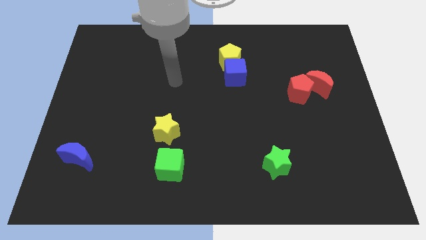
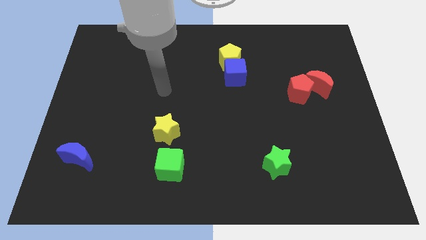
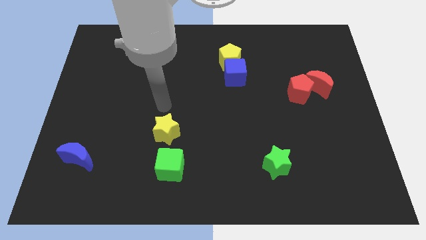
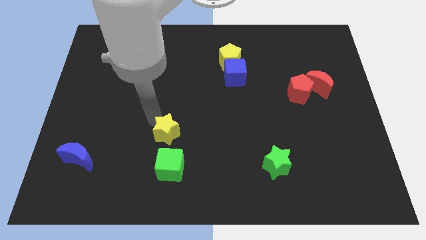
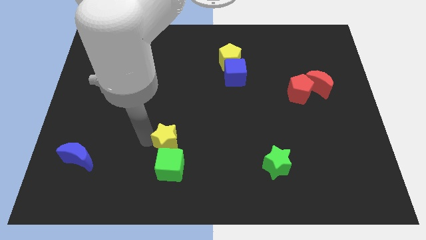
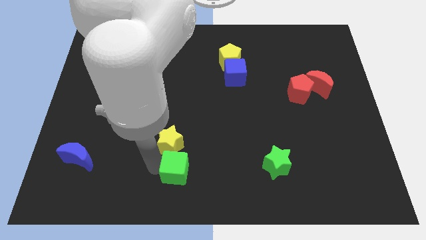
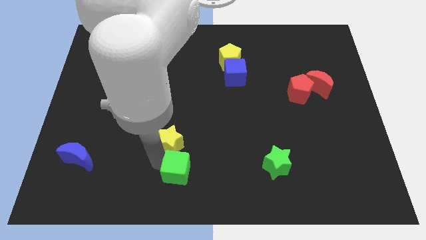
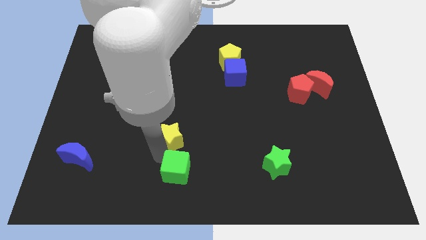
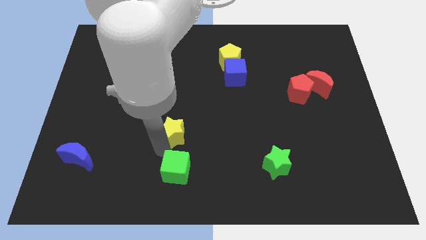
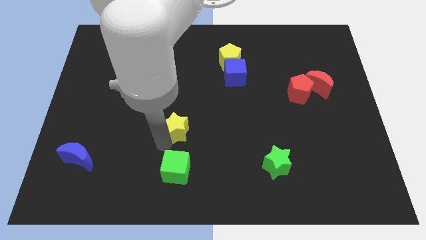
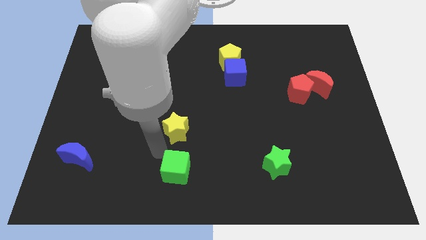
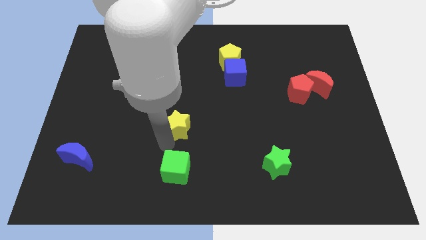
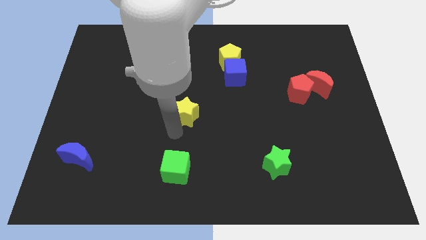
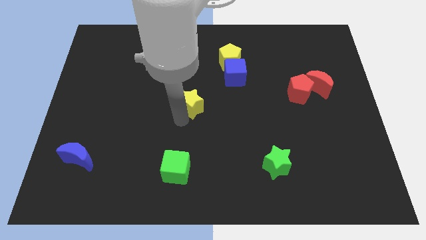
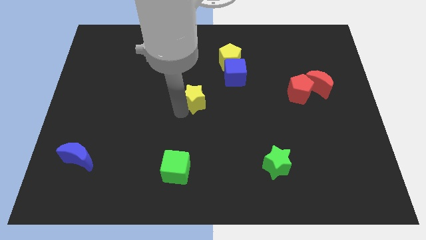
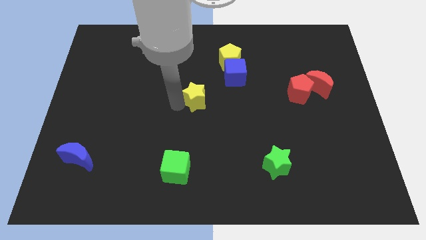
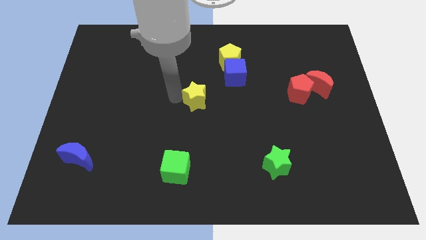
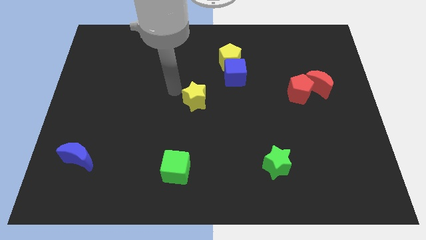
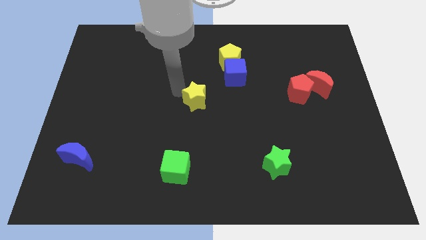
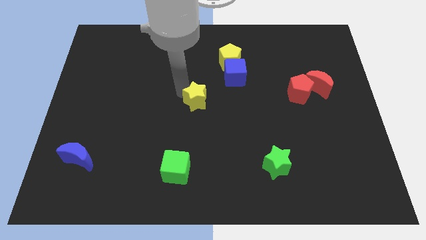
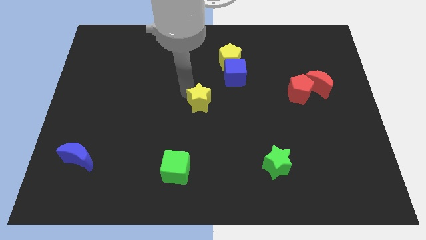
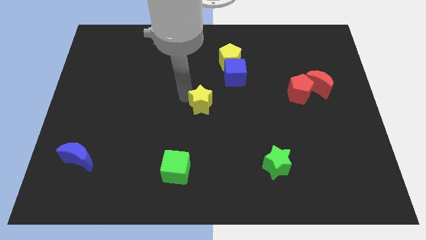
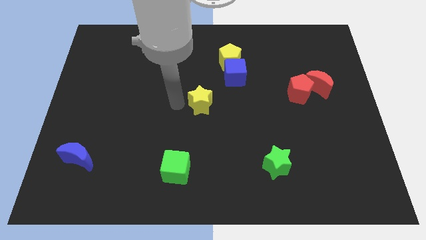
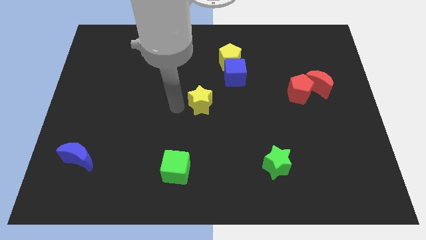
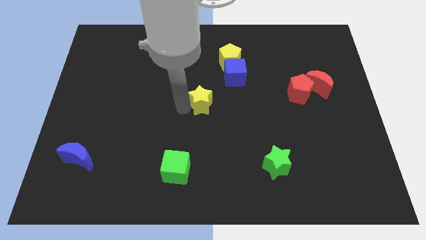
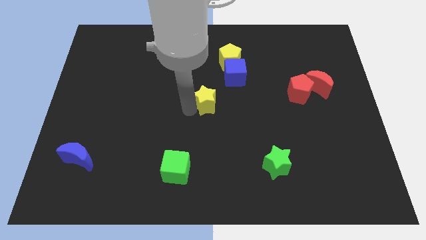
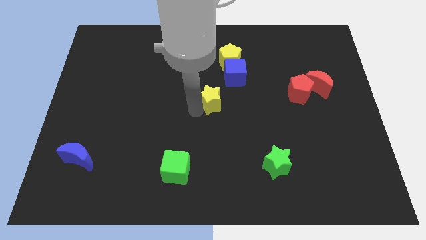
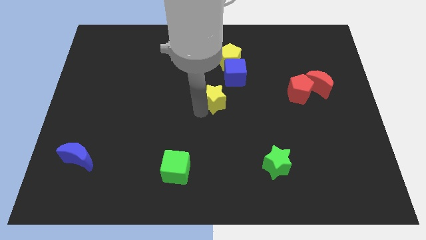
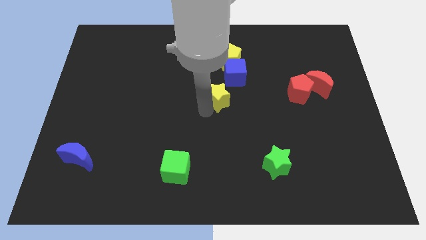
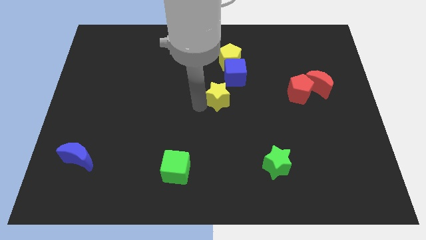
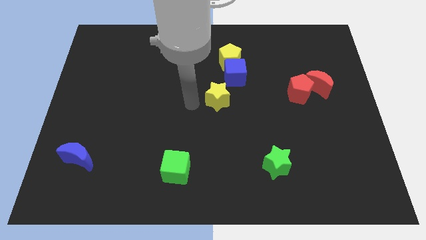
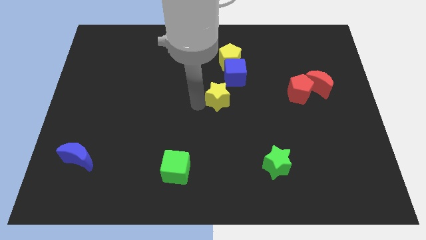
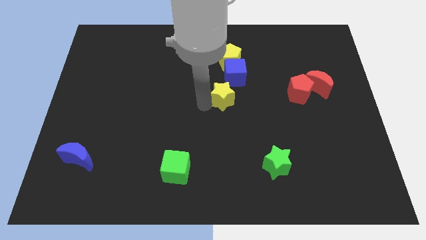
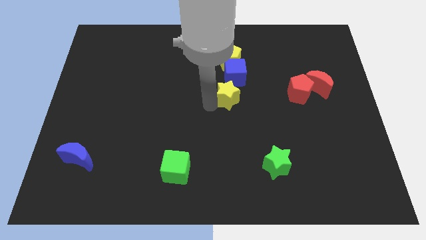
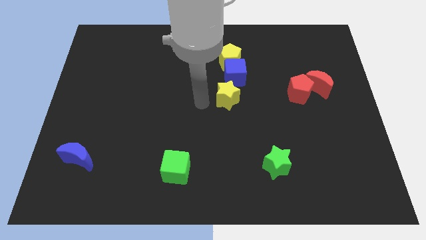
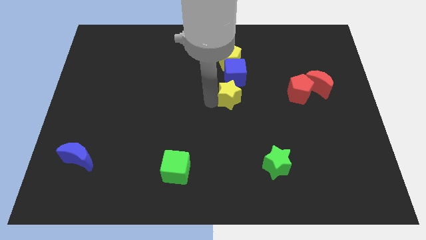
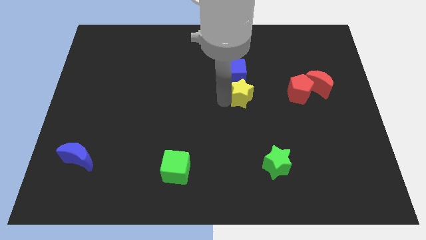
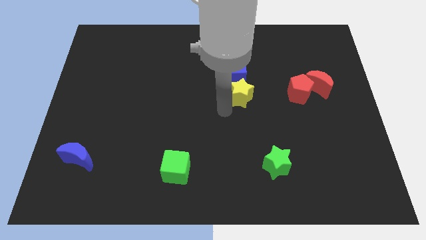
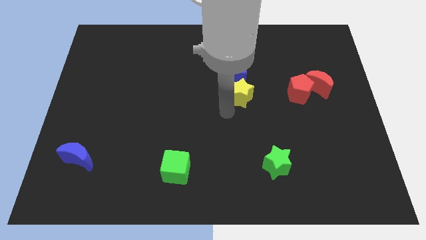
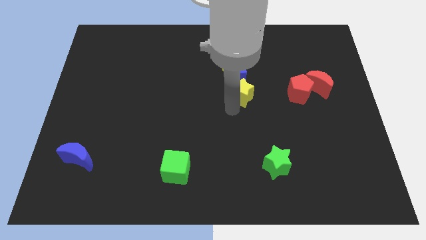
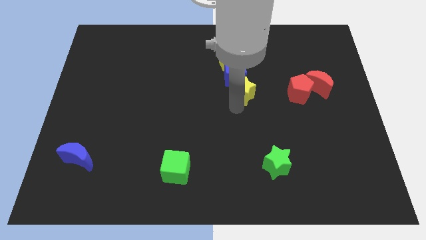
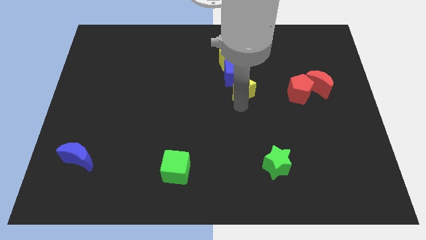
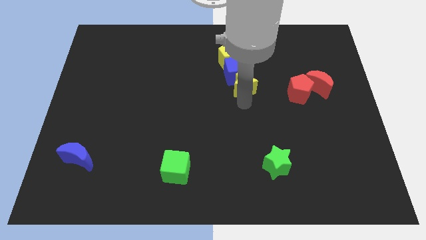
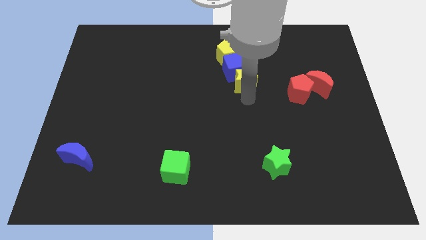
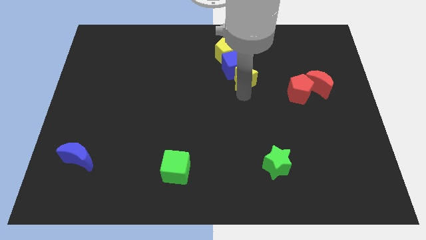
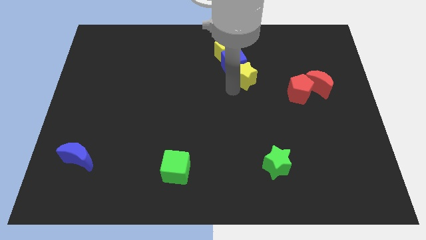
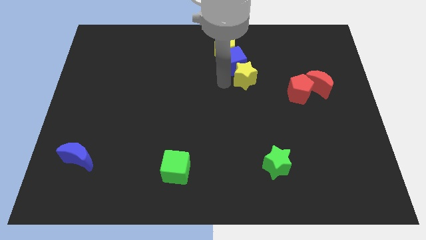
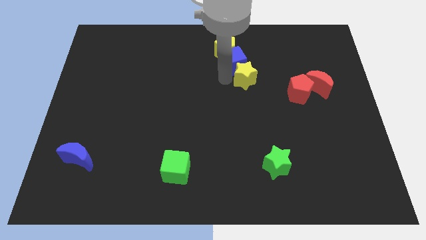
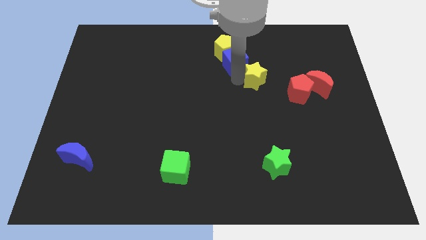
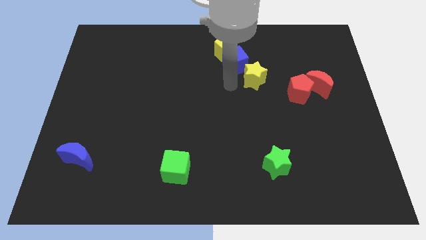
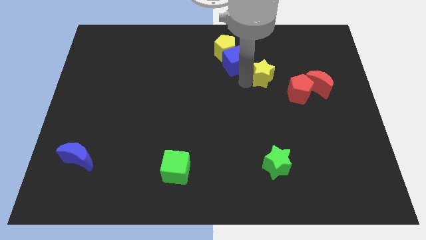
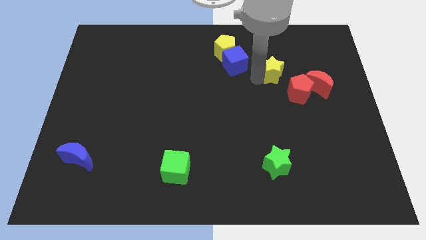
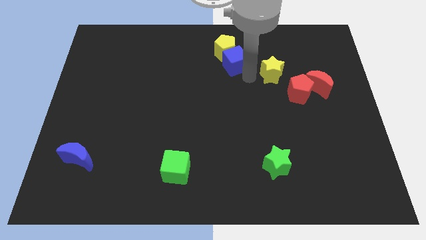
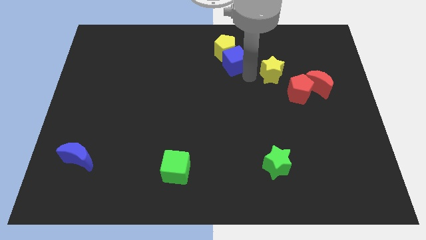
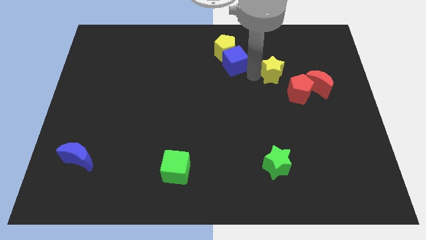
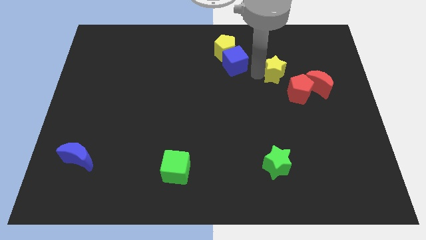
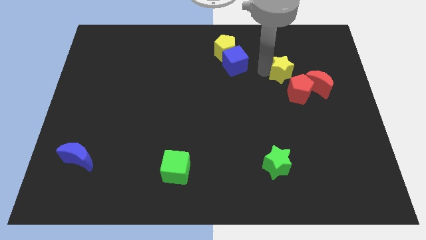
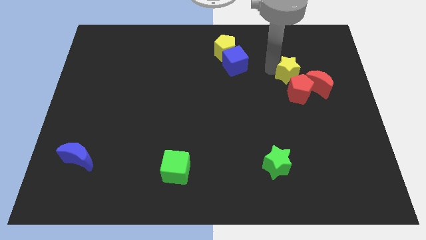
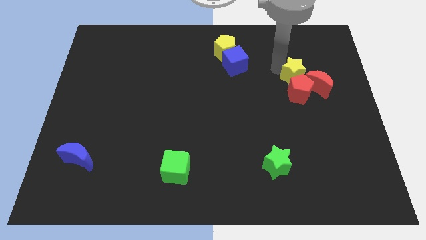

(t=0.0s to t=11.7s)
slide the yellow star diagonally up and to the right of the red pentagon

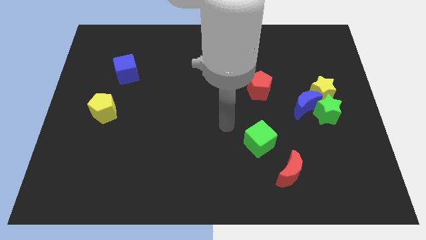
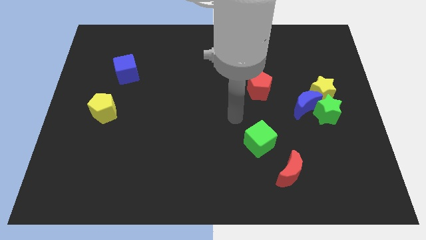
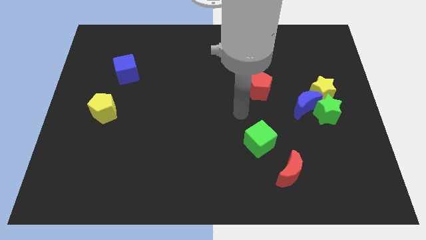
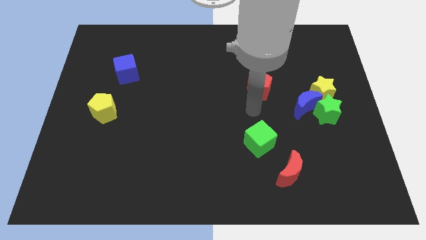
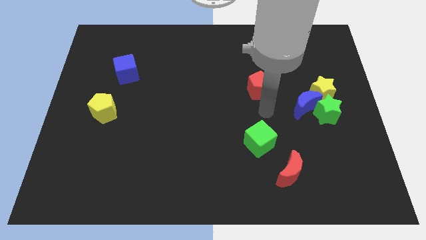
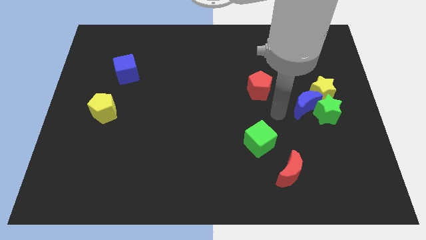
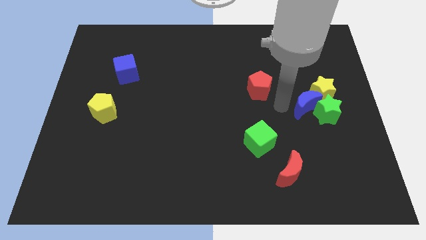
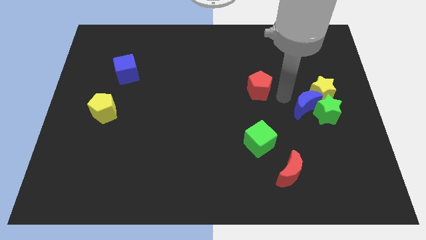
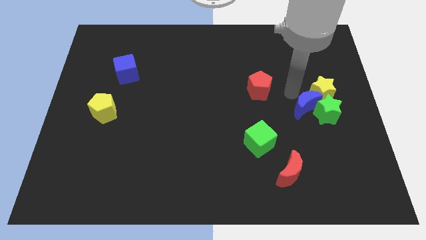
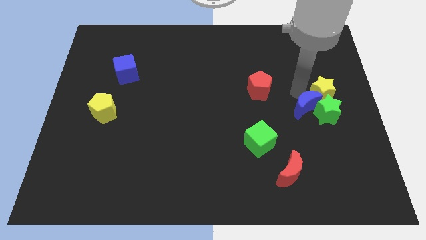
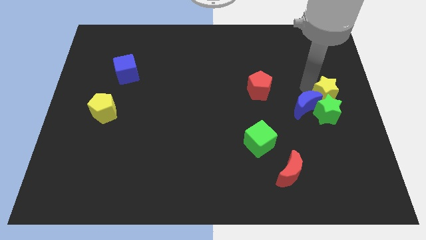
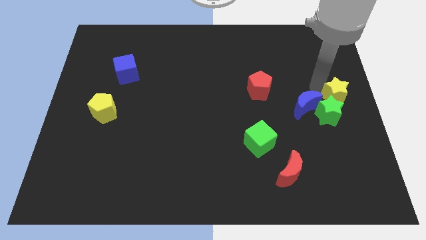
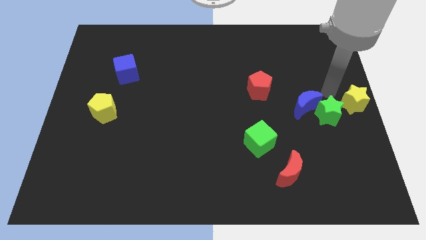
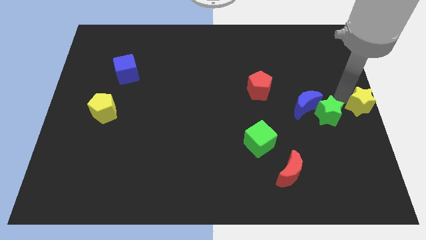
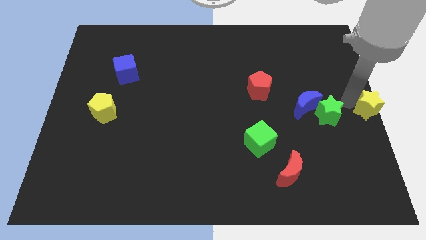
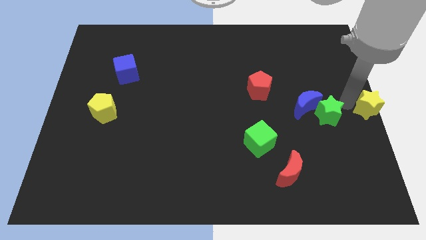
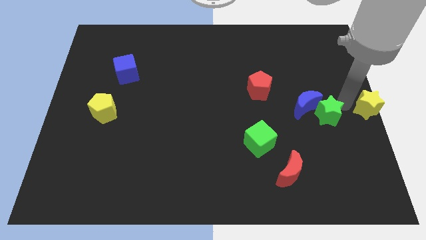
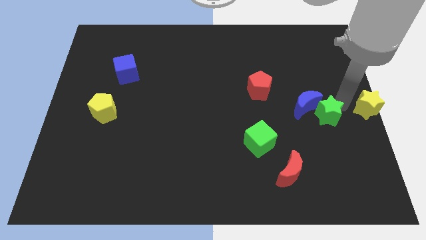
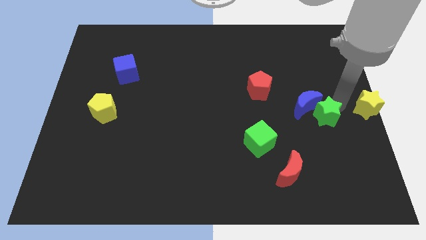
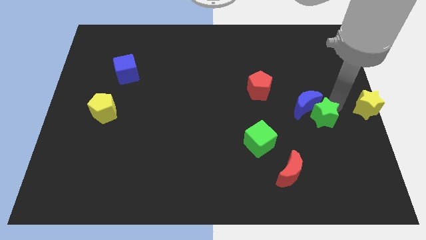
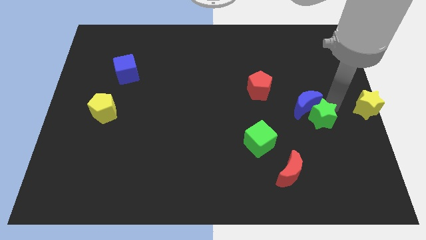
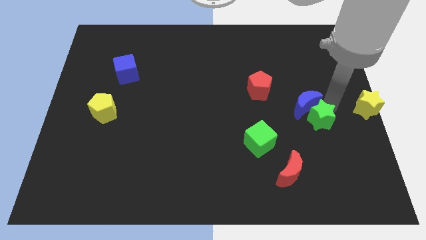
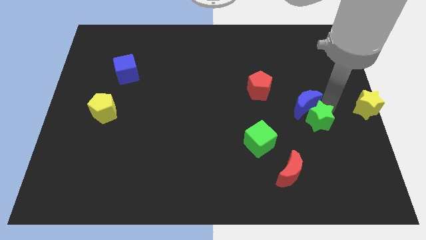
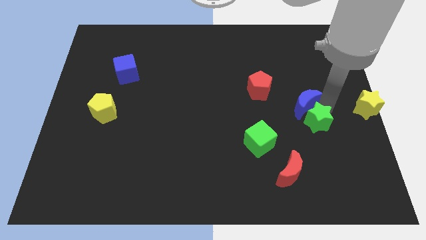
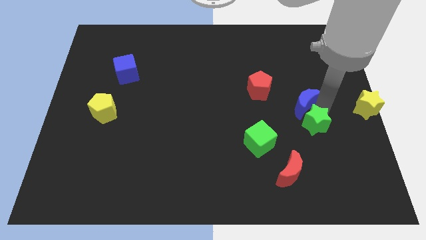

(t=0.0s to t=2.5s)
move the green star to the bottom left side of the blue moon
